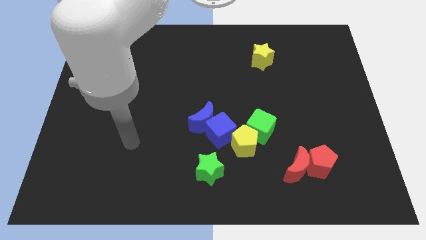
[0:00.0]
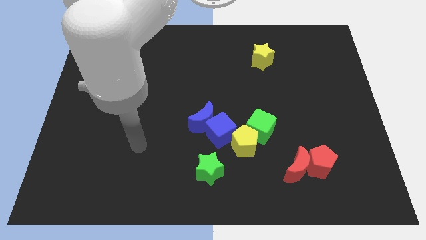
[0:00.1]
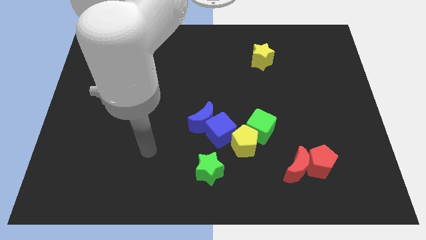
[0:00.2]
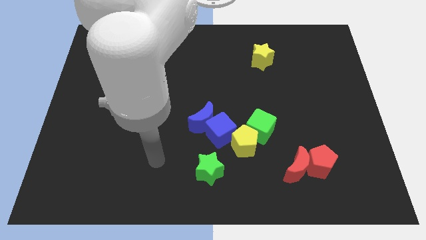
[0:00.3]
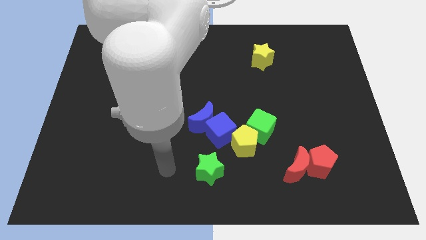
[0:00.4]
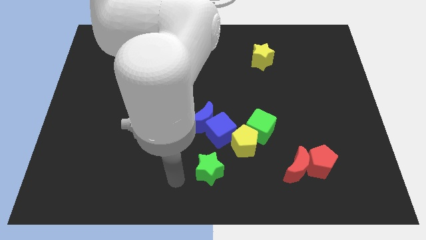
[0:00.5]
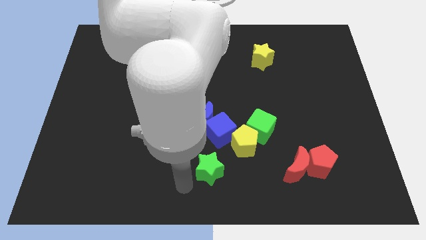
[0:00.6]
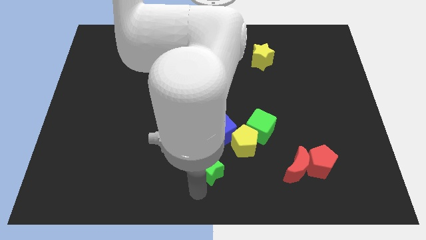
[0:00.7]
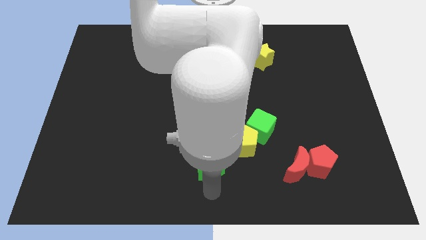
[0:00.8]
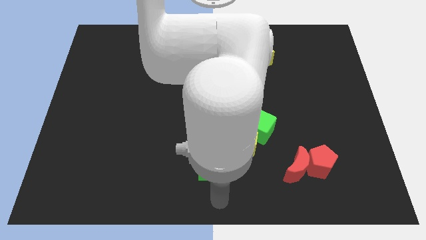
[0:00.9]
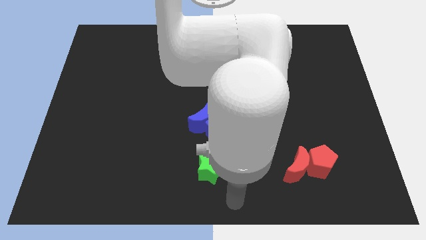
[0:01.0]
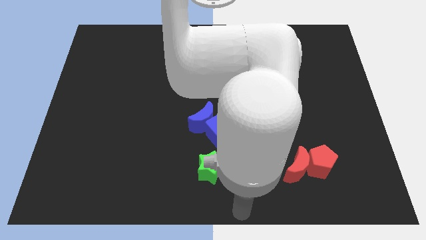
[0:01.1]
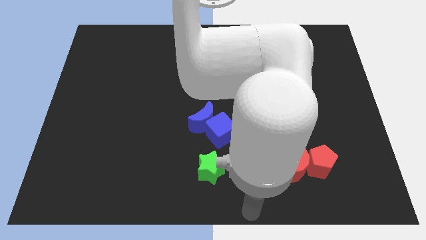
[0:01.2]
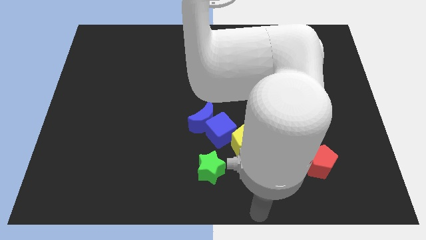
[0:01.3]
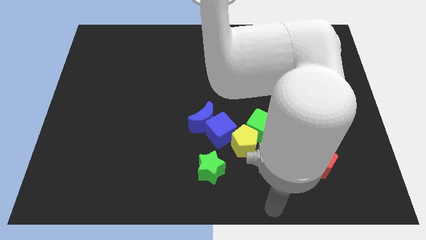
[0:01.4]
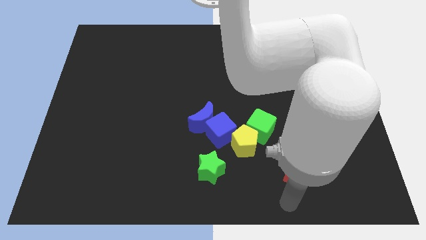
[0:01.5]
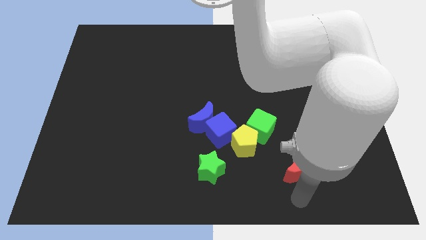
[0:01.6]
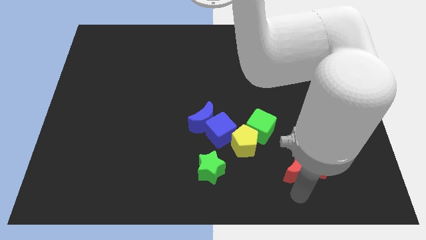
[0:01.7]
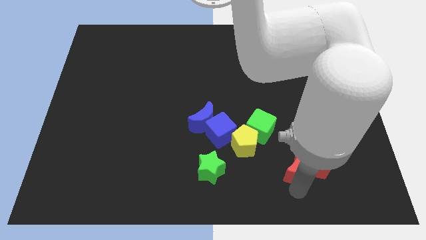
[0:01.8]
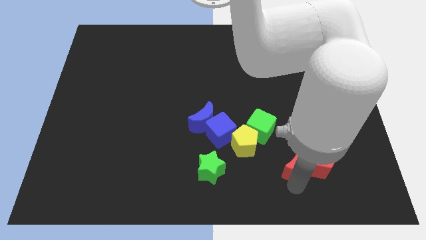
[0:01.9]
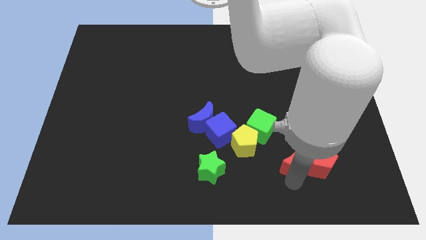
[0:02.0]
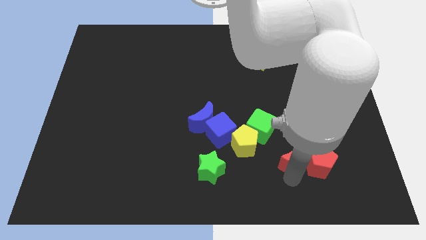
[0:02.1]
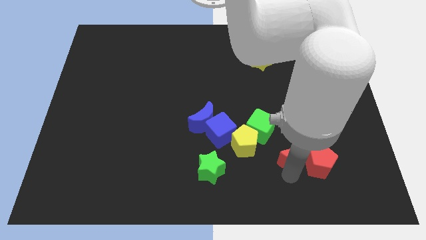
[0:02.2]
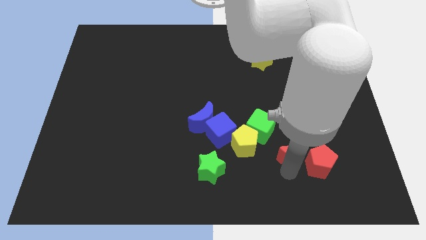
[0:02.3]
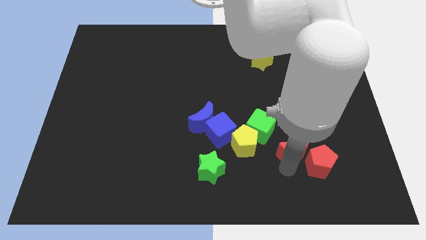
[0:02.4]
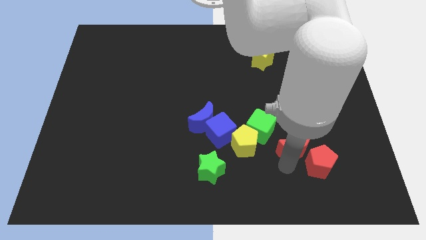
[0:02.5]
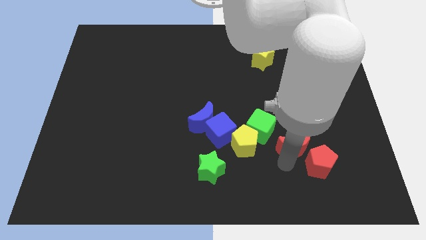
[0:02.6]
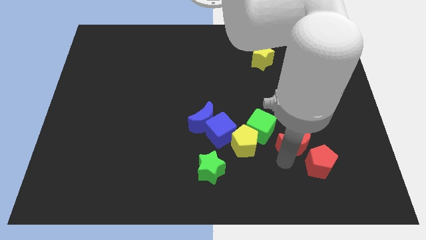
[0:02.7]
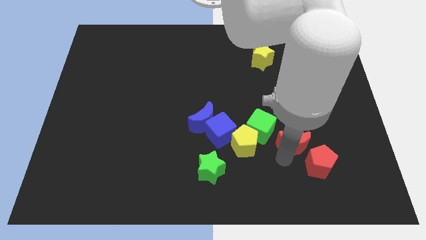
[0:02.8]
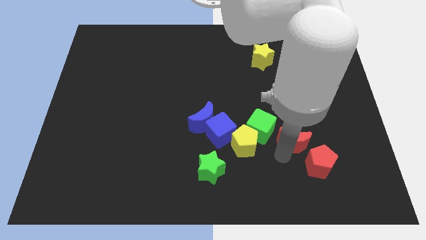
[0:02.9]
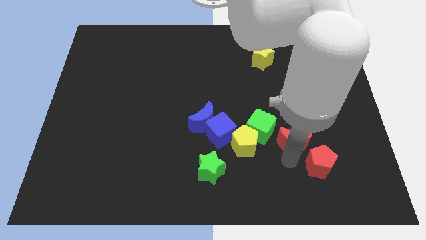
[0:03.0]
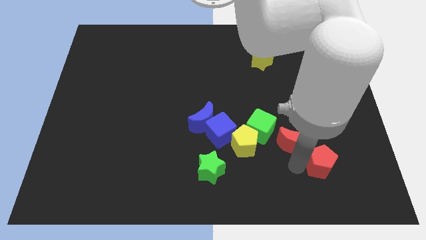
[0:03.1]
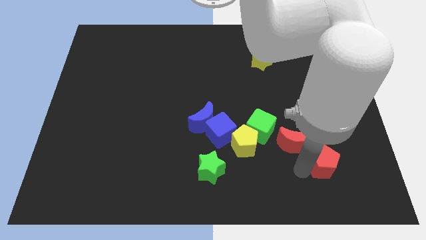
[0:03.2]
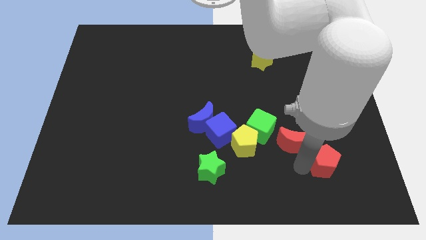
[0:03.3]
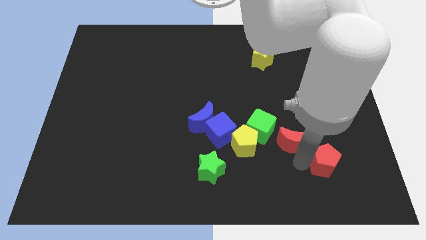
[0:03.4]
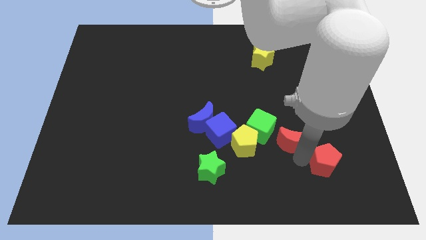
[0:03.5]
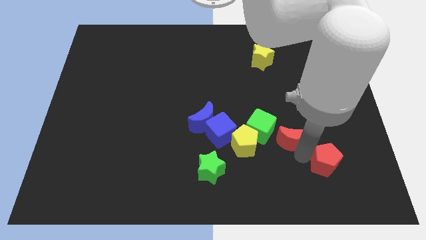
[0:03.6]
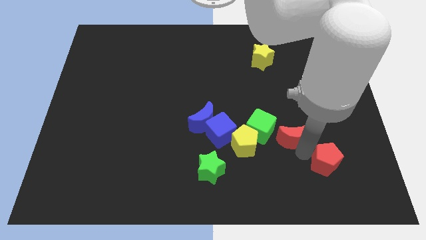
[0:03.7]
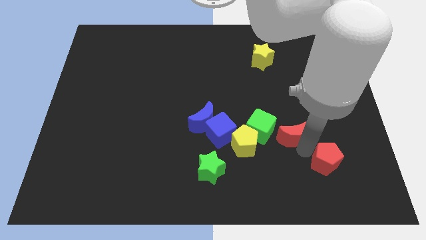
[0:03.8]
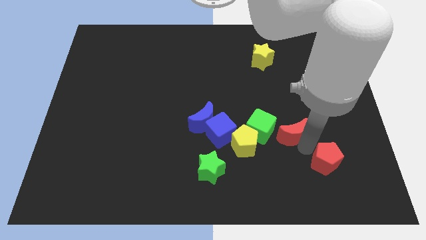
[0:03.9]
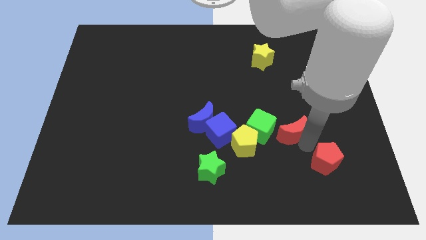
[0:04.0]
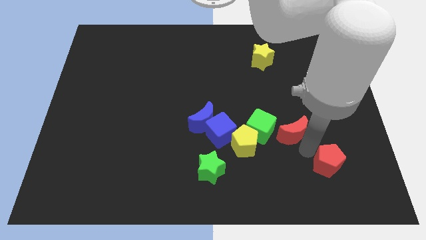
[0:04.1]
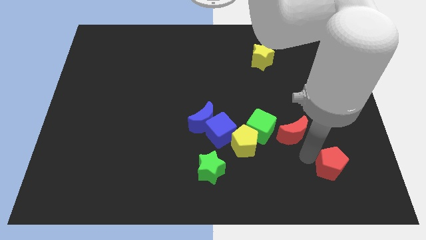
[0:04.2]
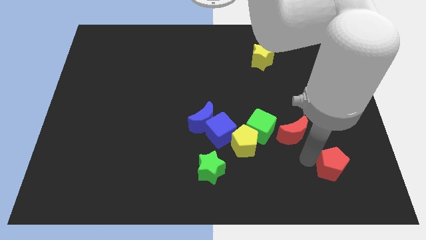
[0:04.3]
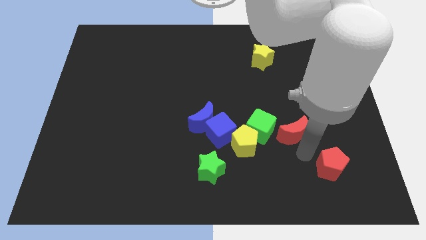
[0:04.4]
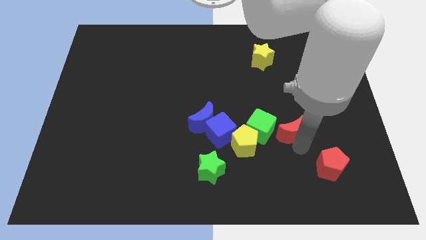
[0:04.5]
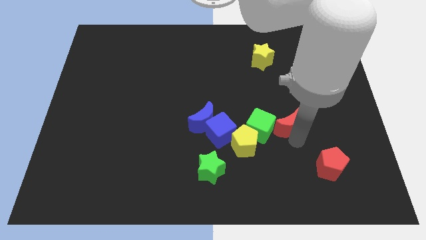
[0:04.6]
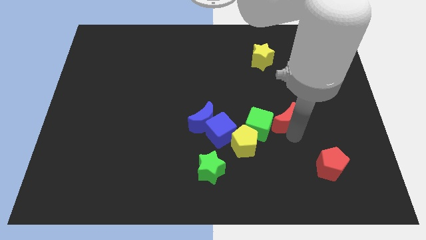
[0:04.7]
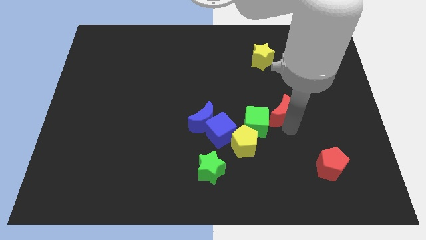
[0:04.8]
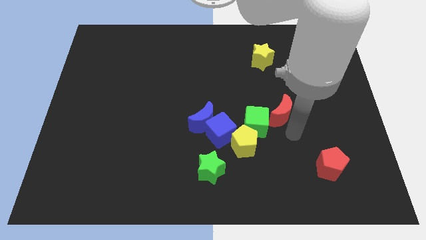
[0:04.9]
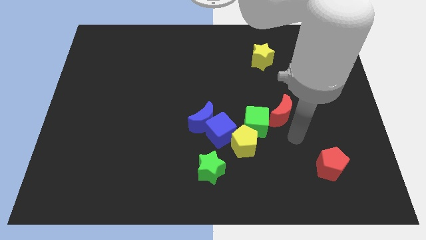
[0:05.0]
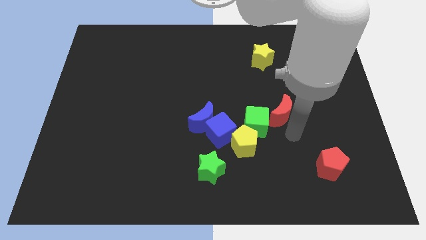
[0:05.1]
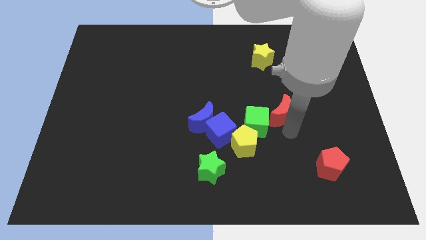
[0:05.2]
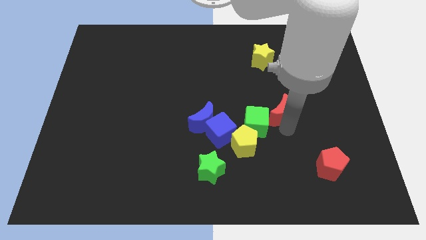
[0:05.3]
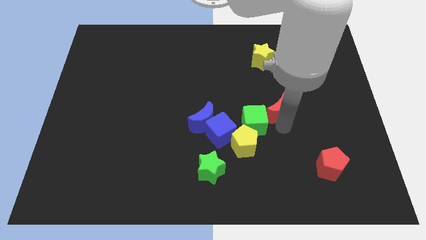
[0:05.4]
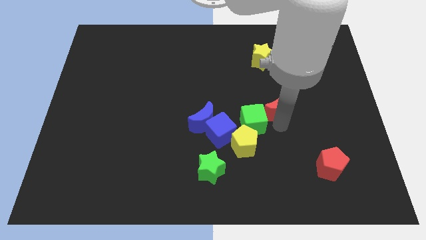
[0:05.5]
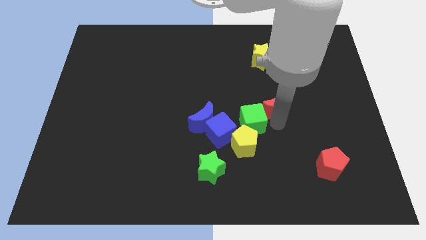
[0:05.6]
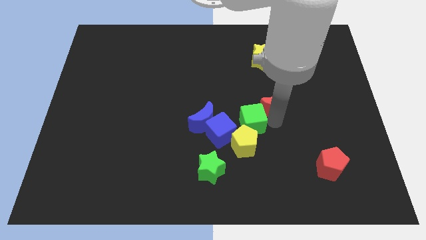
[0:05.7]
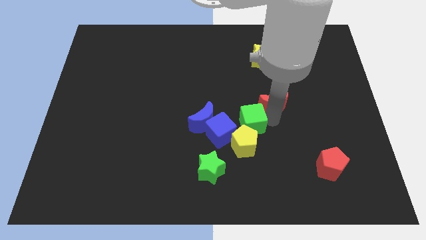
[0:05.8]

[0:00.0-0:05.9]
move the red moon to the bottom of the yellow star
